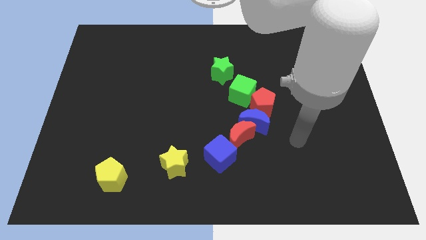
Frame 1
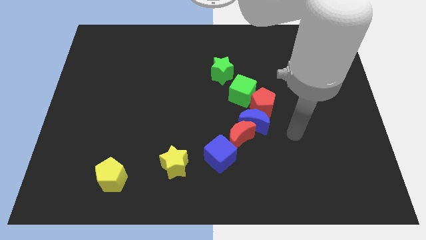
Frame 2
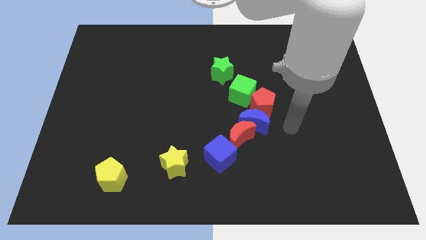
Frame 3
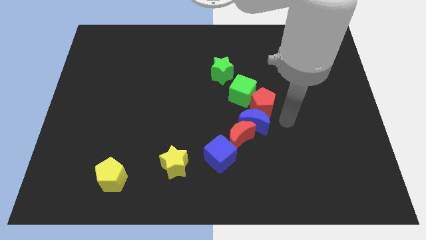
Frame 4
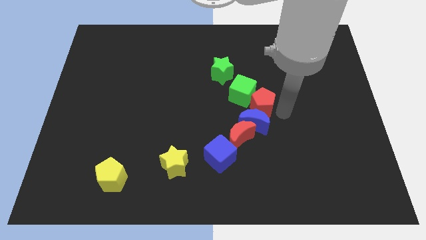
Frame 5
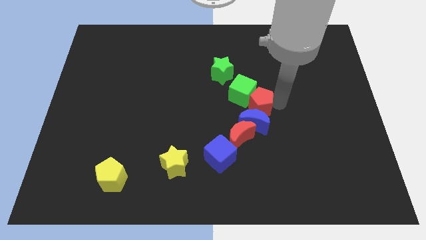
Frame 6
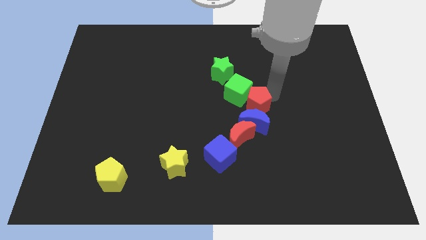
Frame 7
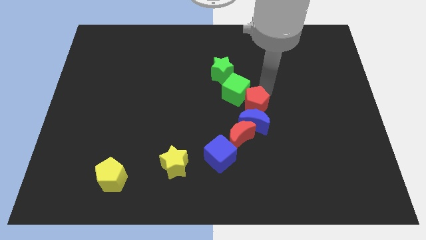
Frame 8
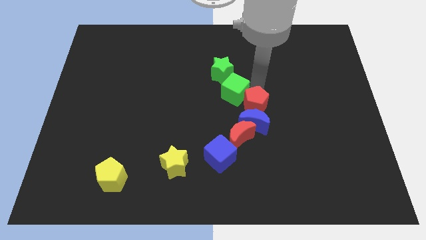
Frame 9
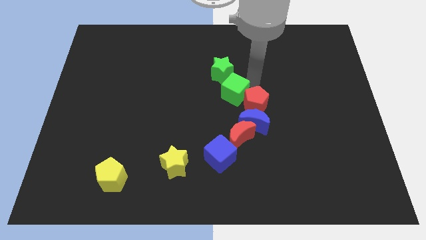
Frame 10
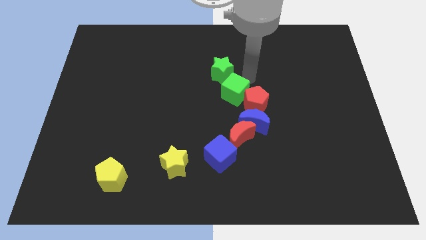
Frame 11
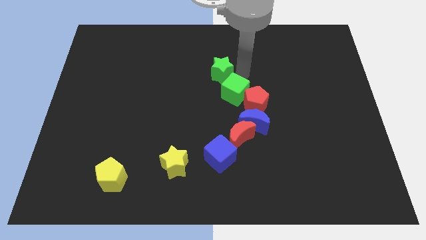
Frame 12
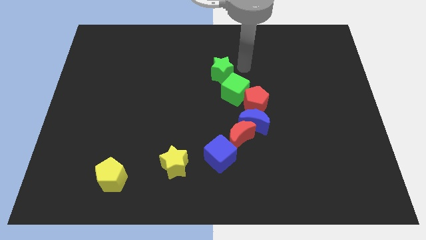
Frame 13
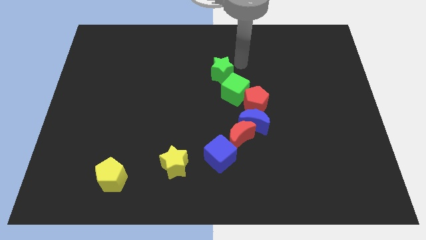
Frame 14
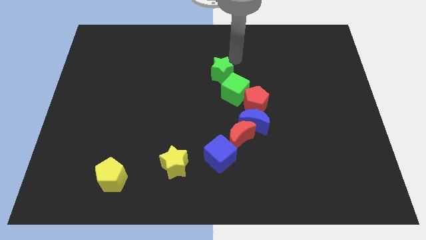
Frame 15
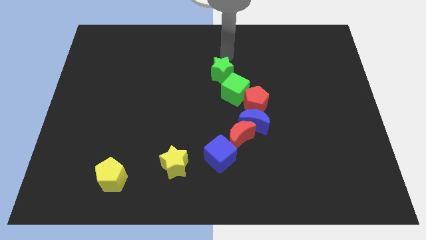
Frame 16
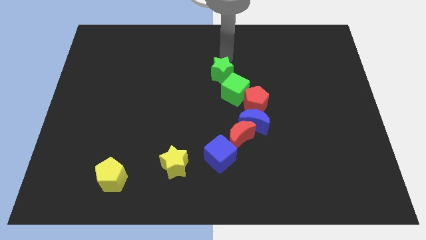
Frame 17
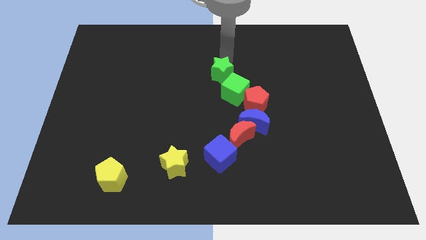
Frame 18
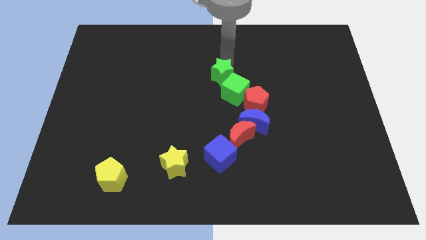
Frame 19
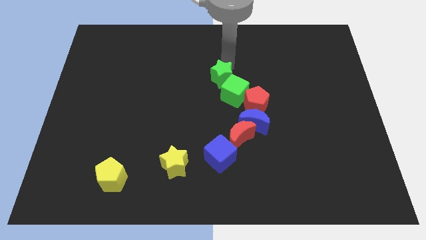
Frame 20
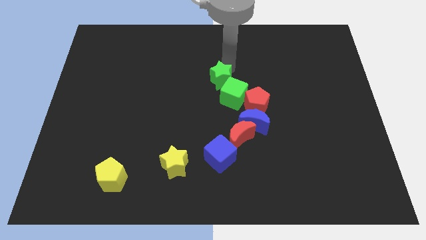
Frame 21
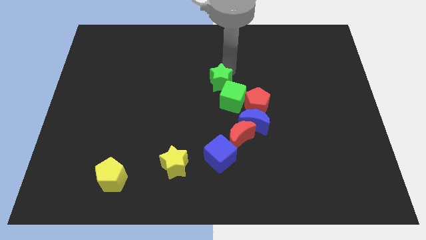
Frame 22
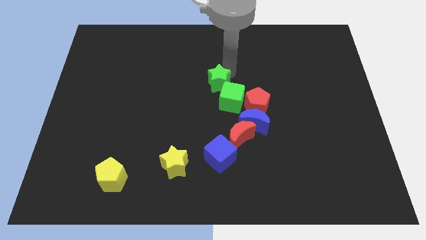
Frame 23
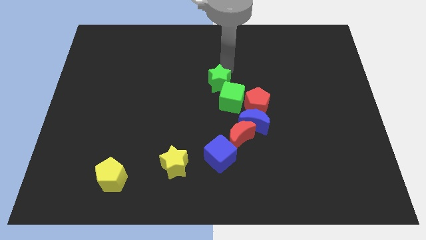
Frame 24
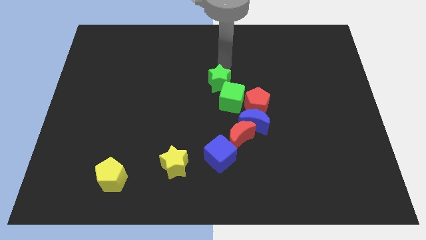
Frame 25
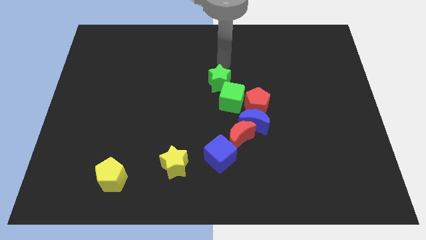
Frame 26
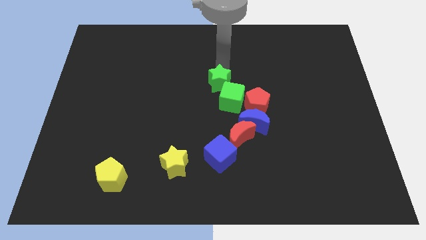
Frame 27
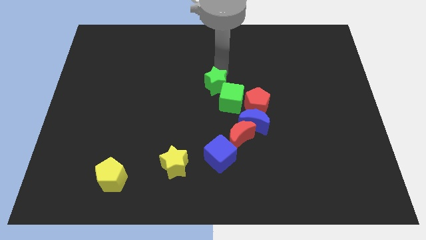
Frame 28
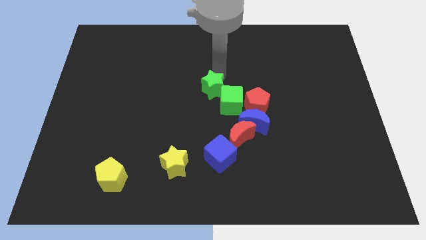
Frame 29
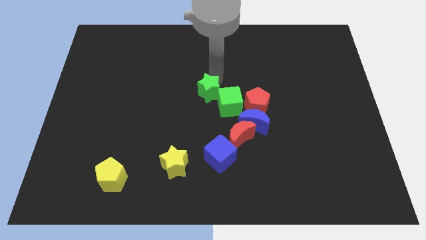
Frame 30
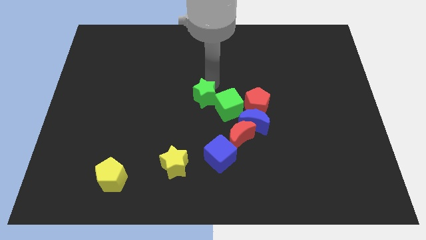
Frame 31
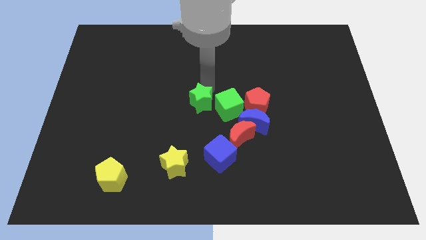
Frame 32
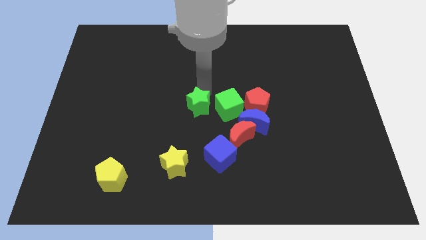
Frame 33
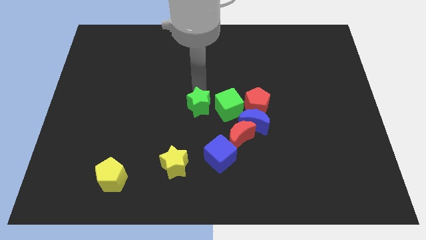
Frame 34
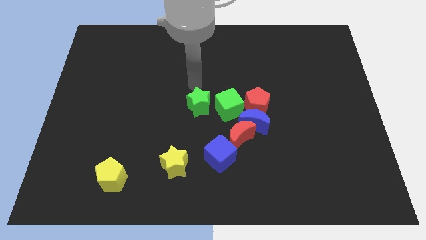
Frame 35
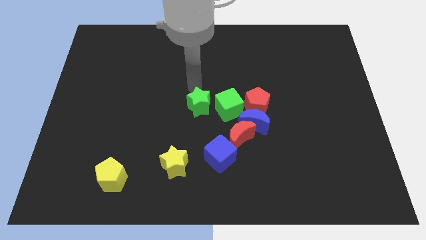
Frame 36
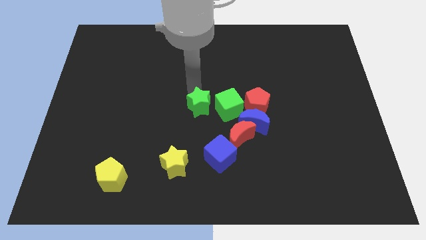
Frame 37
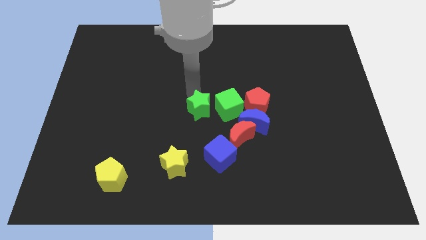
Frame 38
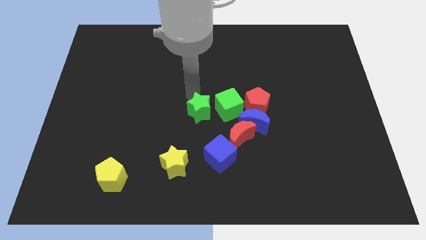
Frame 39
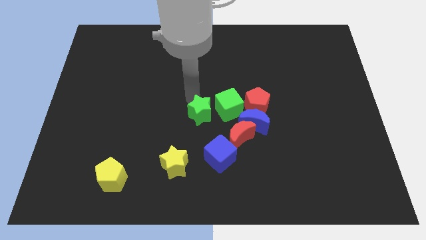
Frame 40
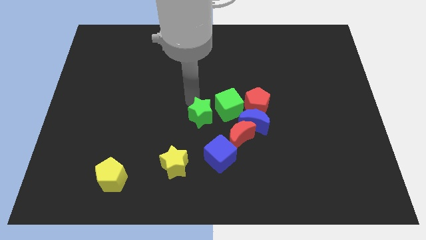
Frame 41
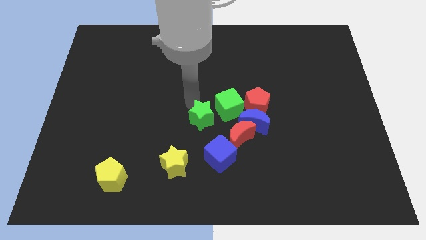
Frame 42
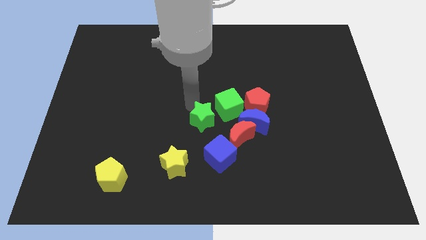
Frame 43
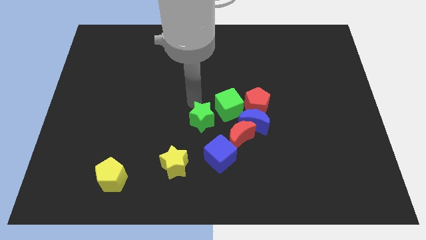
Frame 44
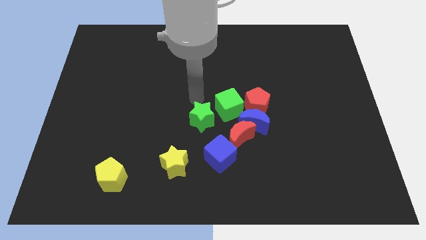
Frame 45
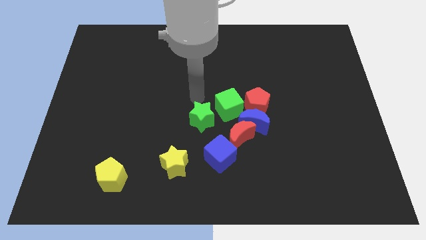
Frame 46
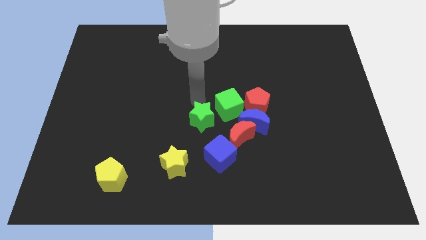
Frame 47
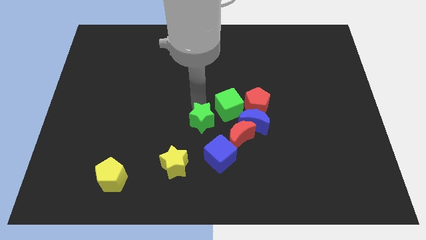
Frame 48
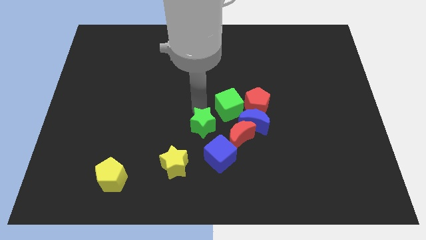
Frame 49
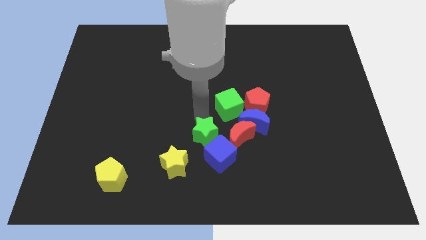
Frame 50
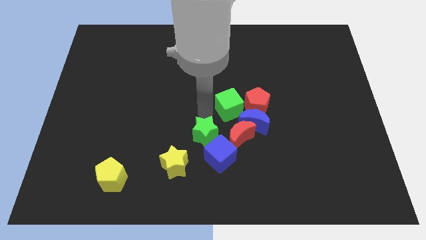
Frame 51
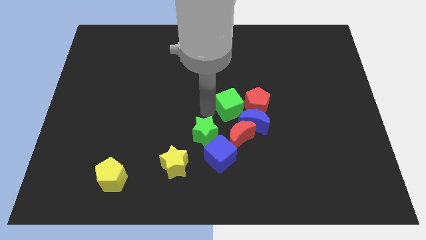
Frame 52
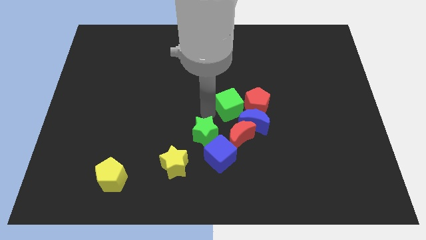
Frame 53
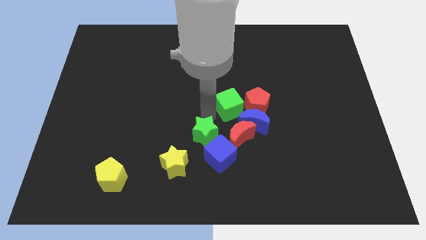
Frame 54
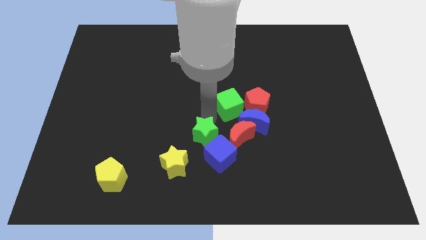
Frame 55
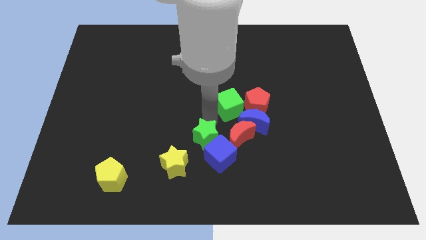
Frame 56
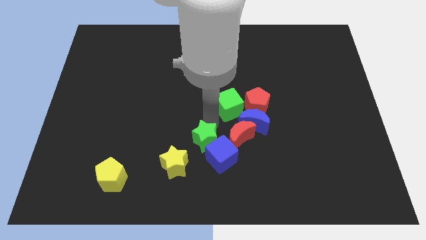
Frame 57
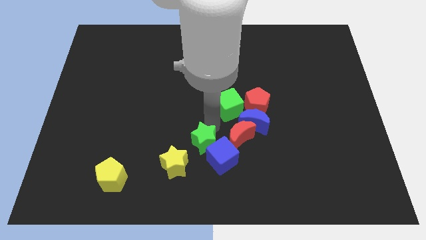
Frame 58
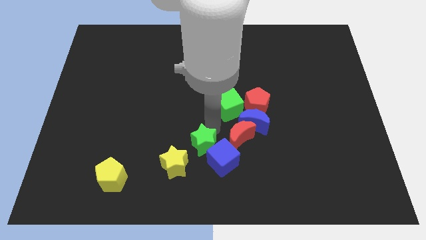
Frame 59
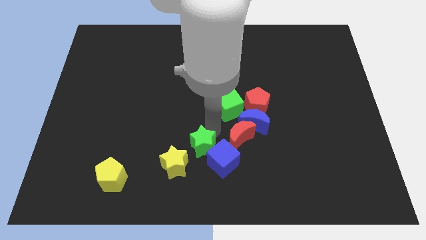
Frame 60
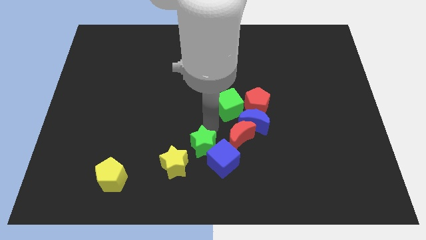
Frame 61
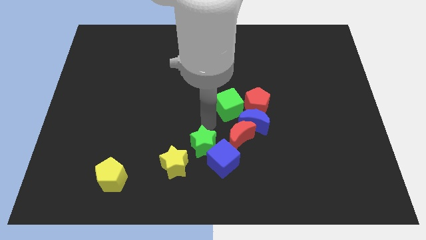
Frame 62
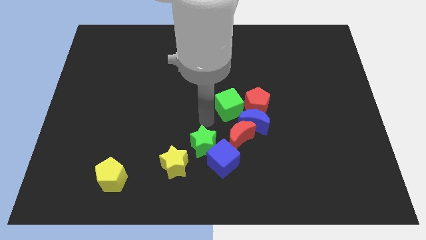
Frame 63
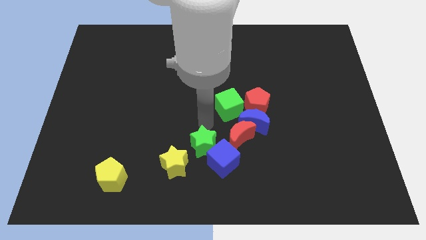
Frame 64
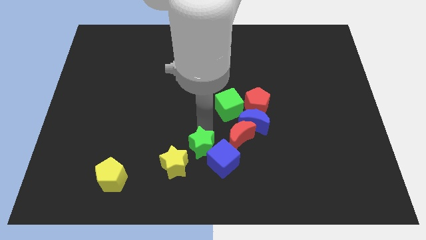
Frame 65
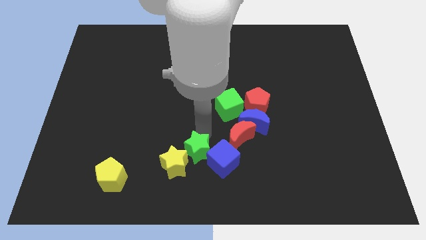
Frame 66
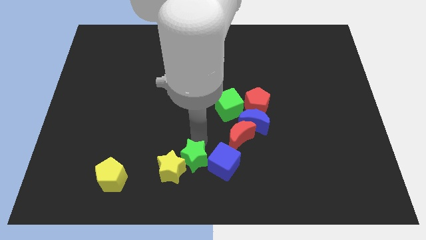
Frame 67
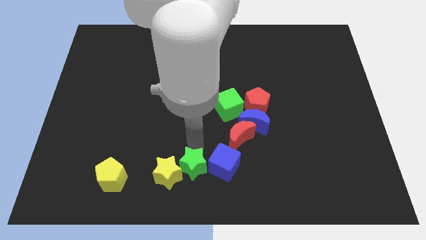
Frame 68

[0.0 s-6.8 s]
move the green star to the bottom left side of the blue cube
